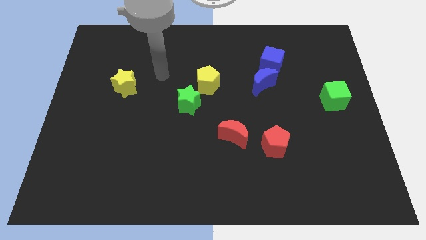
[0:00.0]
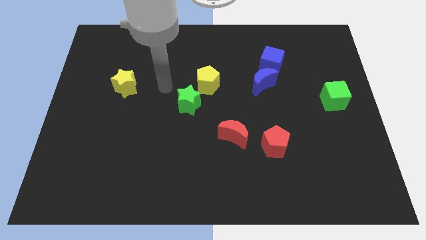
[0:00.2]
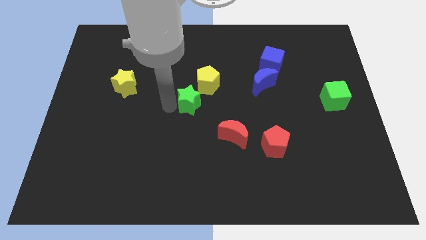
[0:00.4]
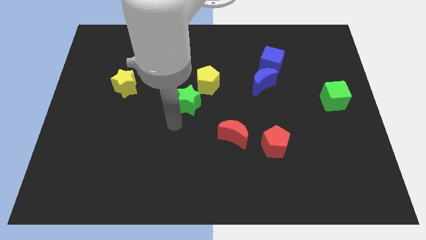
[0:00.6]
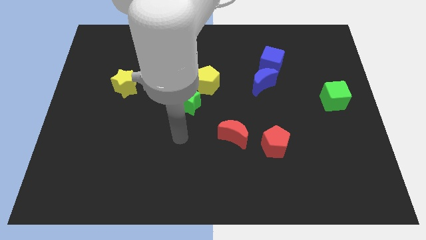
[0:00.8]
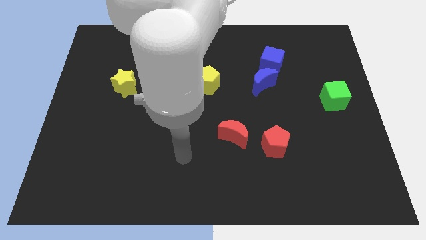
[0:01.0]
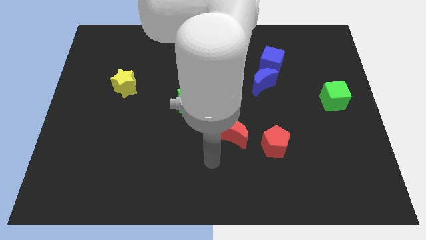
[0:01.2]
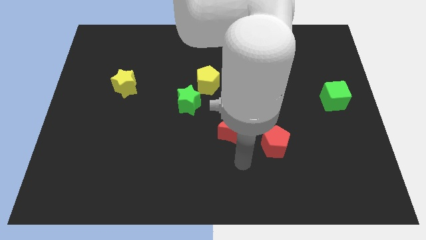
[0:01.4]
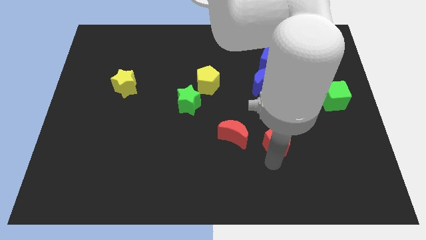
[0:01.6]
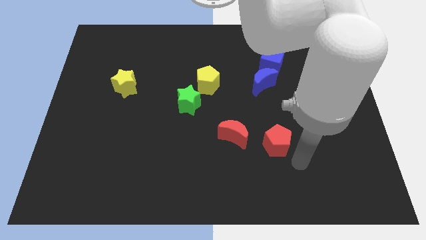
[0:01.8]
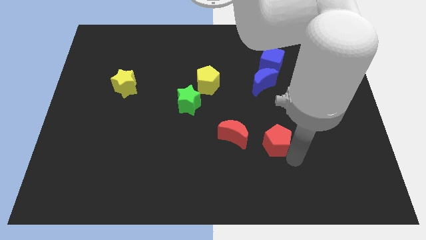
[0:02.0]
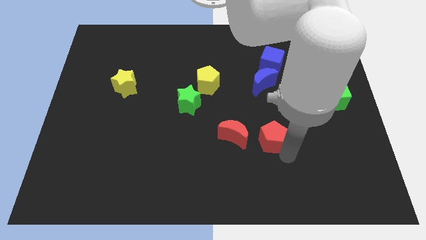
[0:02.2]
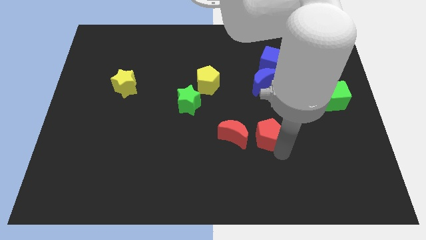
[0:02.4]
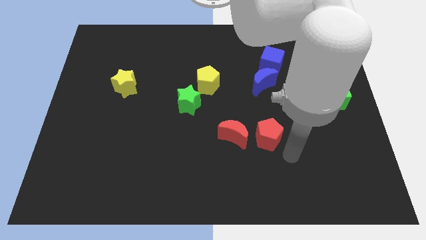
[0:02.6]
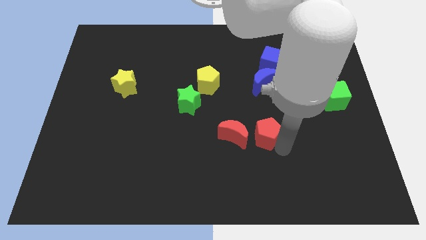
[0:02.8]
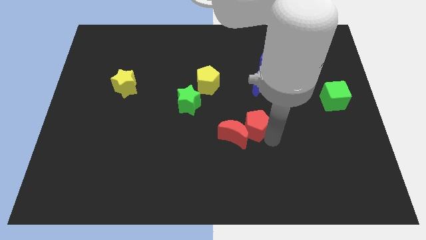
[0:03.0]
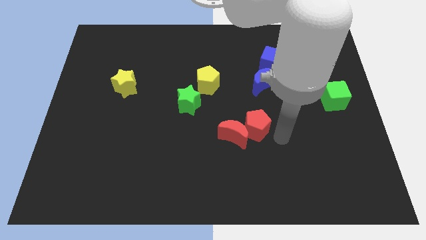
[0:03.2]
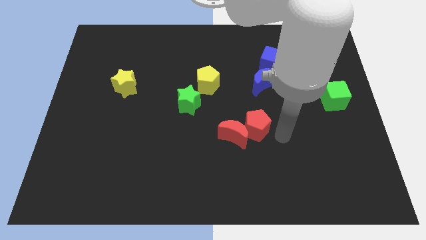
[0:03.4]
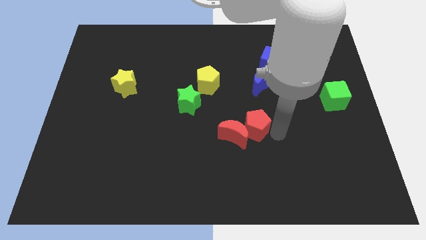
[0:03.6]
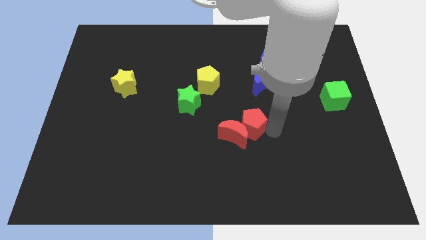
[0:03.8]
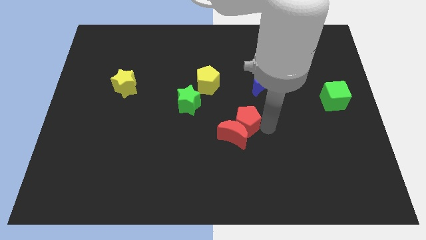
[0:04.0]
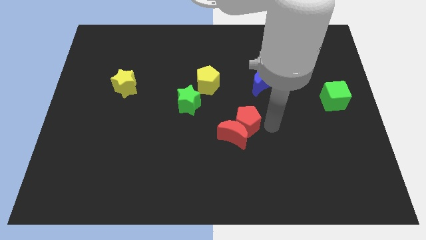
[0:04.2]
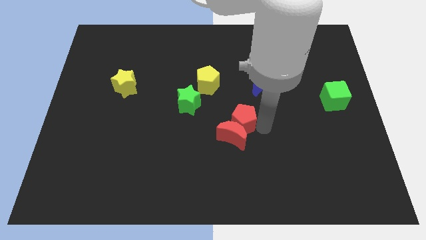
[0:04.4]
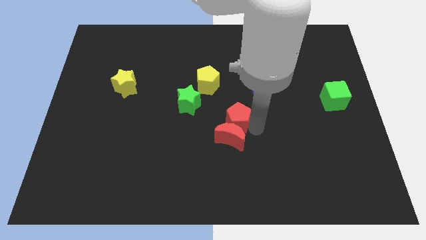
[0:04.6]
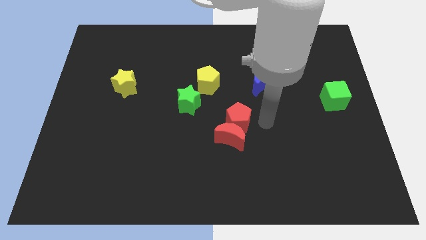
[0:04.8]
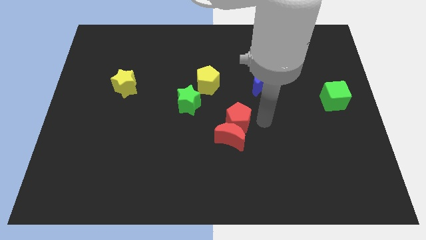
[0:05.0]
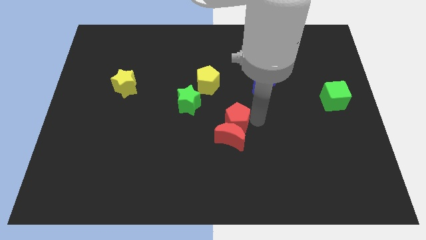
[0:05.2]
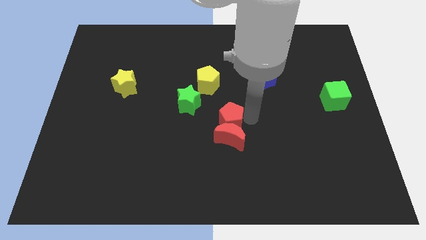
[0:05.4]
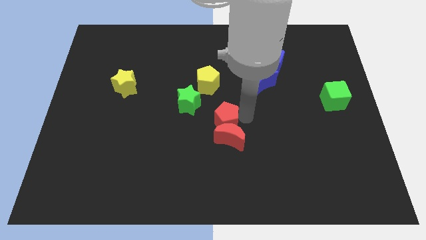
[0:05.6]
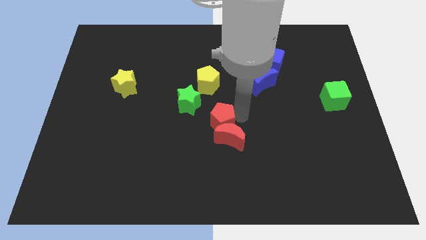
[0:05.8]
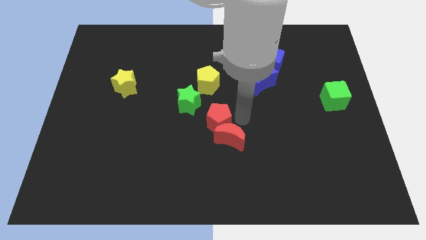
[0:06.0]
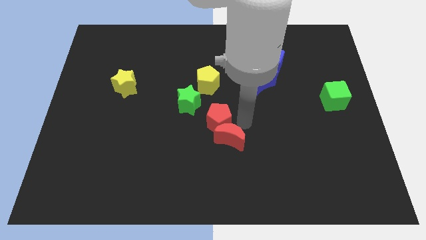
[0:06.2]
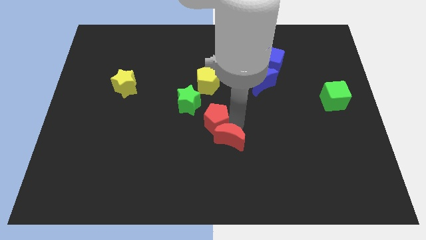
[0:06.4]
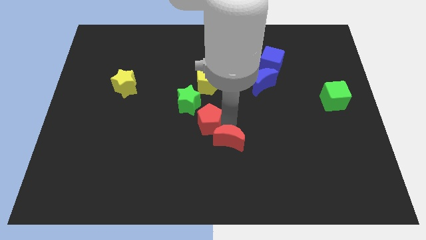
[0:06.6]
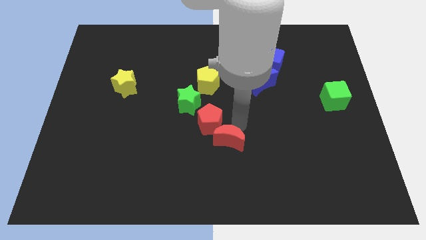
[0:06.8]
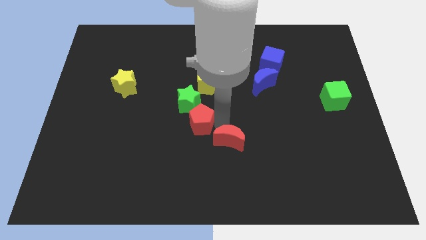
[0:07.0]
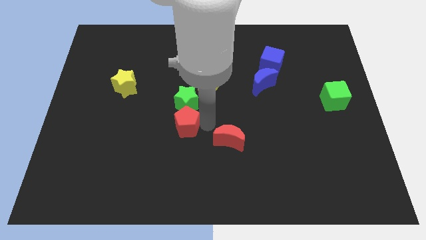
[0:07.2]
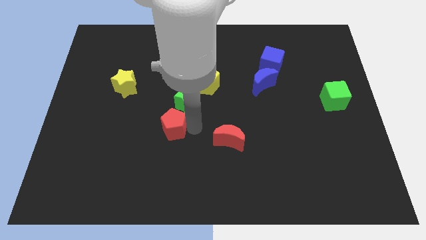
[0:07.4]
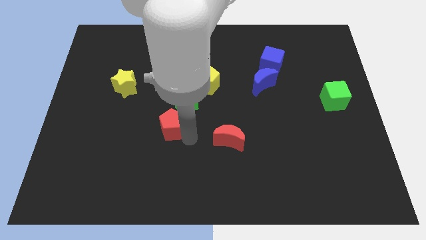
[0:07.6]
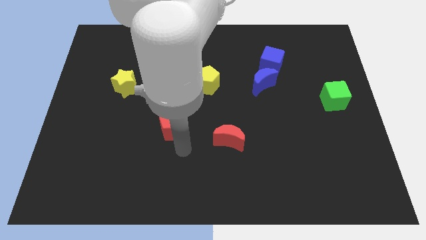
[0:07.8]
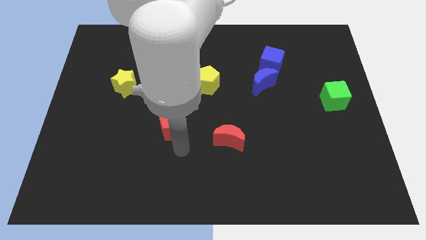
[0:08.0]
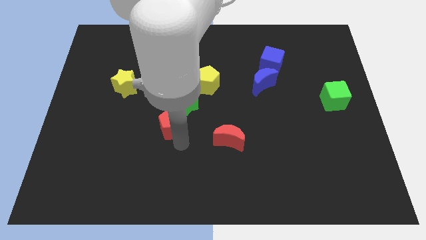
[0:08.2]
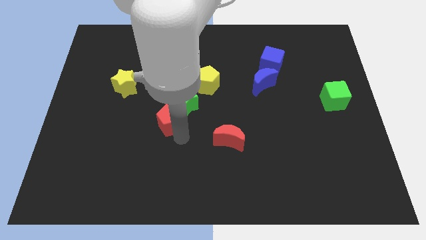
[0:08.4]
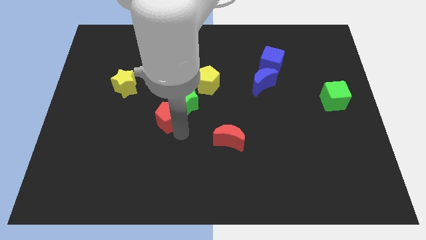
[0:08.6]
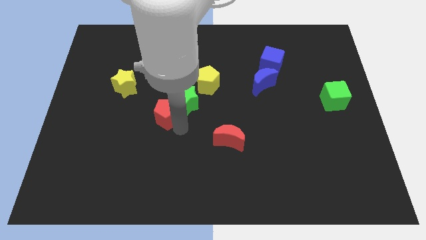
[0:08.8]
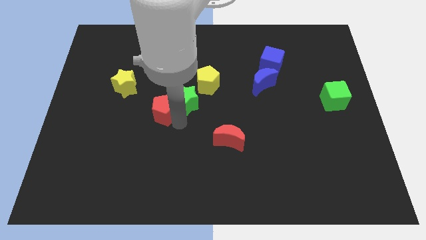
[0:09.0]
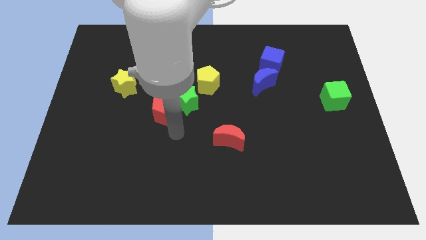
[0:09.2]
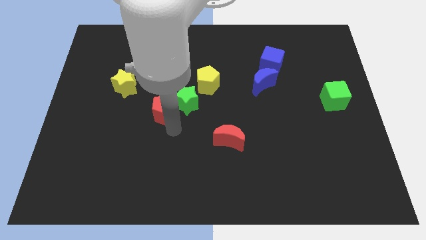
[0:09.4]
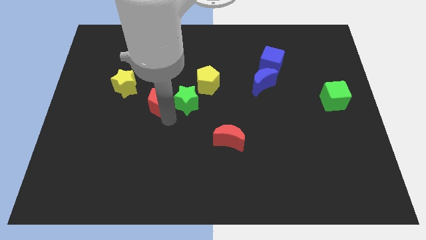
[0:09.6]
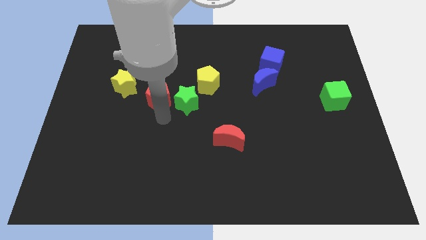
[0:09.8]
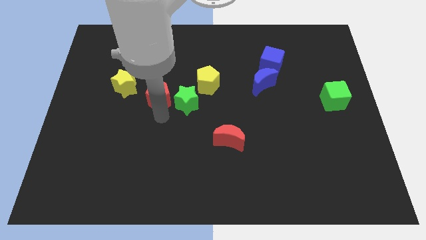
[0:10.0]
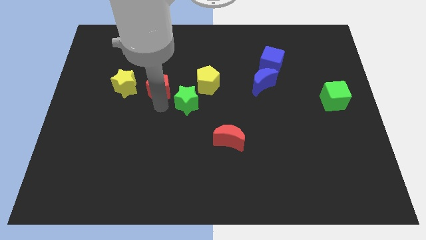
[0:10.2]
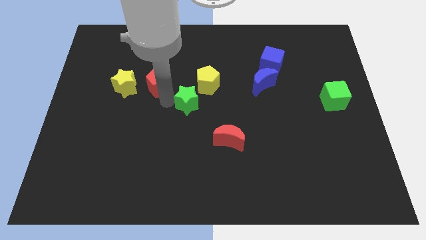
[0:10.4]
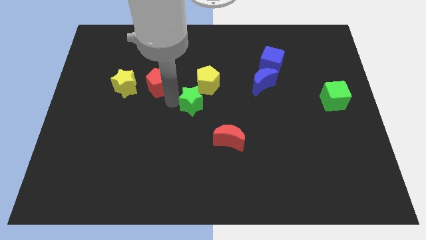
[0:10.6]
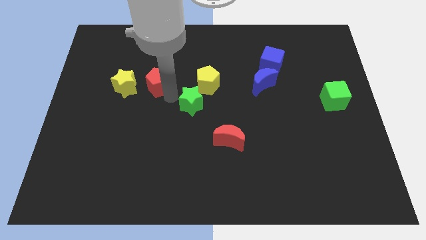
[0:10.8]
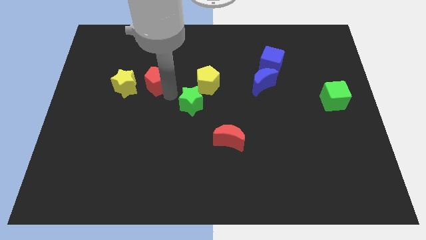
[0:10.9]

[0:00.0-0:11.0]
push the red pentagon to the top right of the yellow star

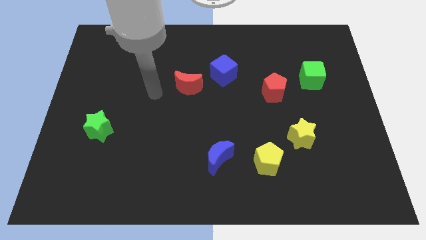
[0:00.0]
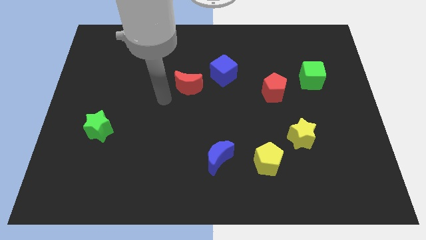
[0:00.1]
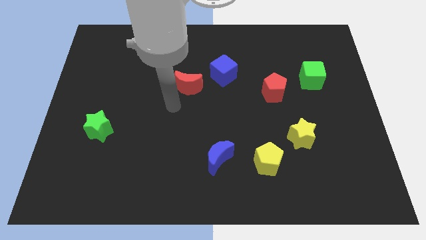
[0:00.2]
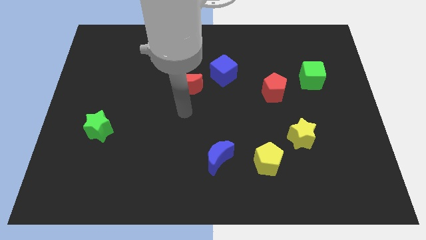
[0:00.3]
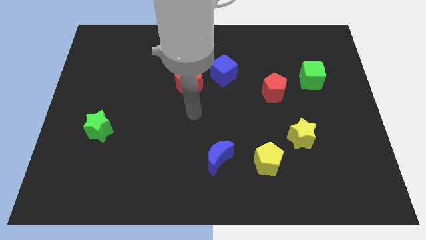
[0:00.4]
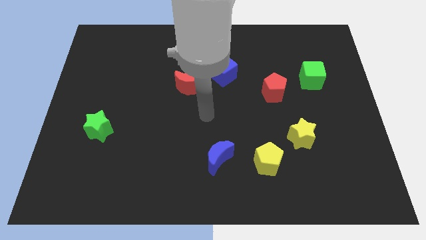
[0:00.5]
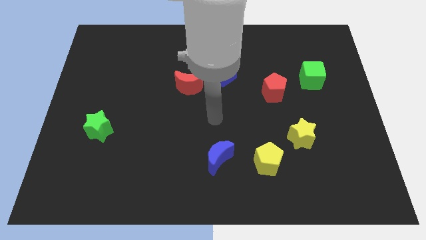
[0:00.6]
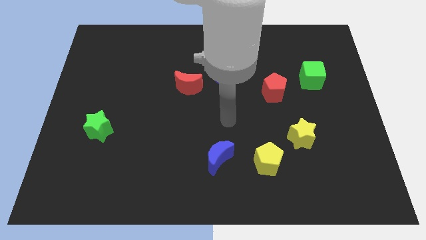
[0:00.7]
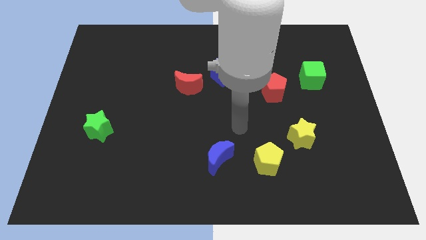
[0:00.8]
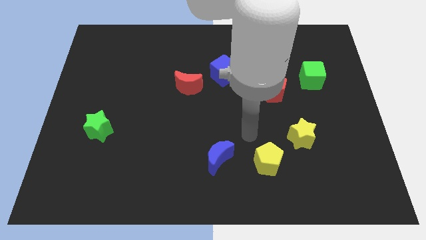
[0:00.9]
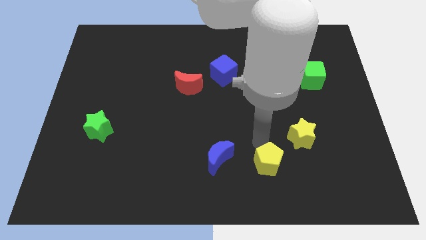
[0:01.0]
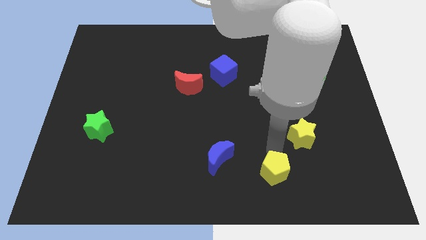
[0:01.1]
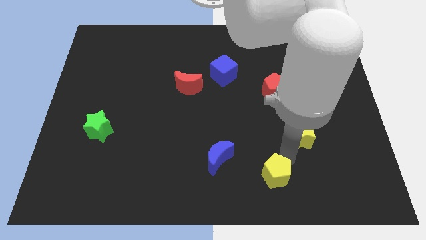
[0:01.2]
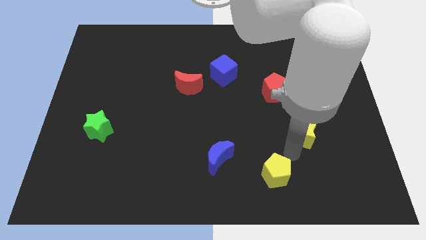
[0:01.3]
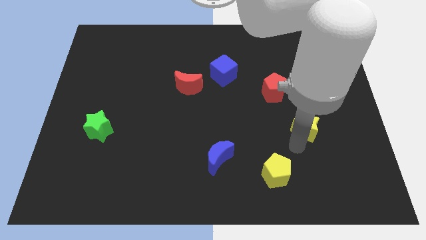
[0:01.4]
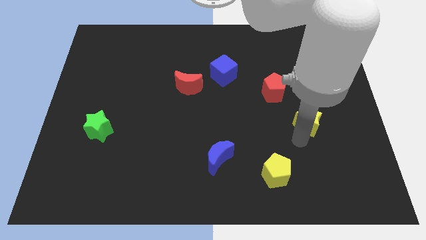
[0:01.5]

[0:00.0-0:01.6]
put the yellow star below the green cube
